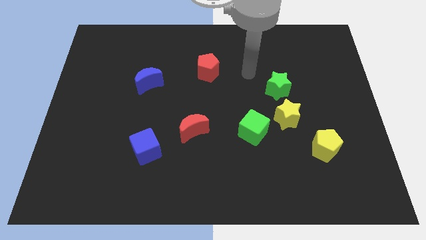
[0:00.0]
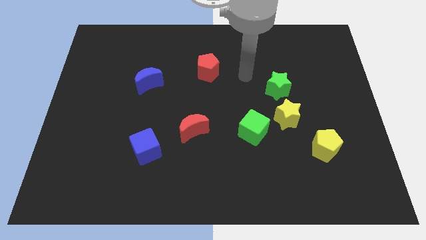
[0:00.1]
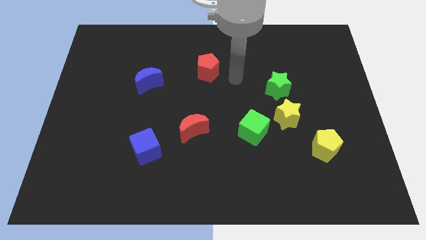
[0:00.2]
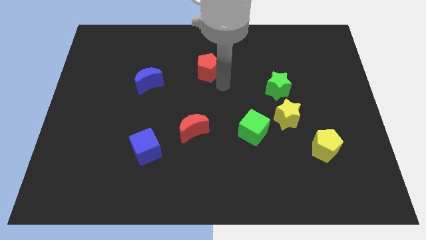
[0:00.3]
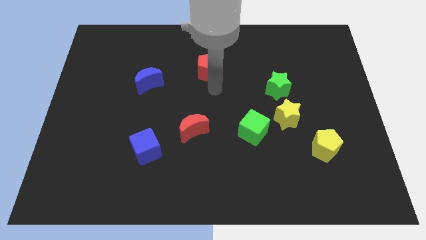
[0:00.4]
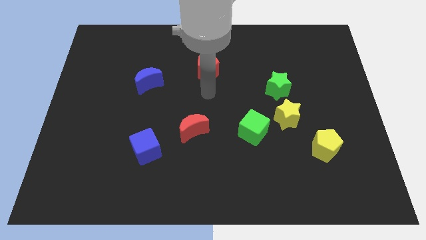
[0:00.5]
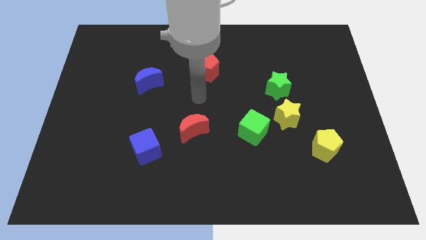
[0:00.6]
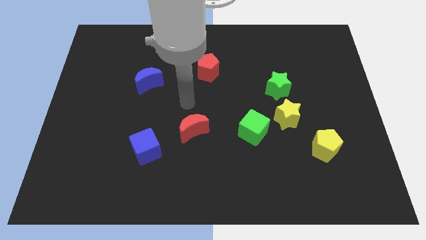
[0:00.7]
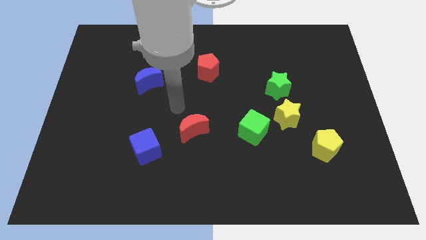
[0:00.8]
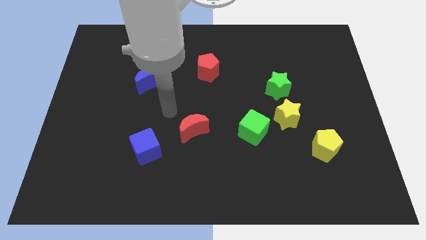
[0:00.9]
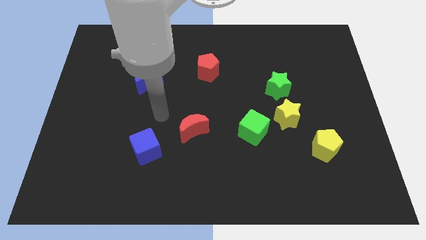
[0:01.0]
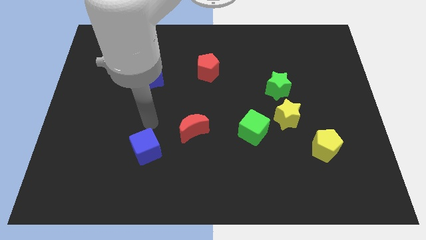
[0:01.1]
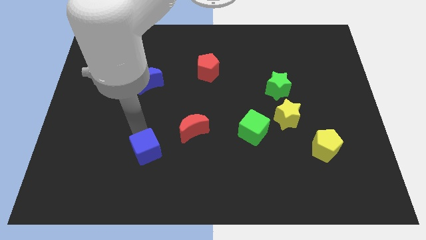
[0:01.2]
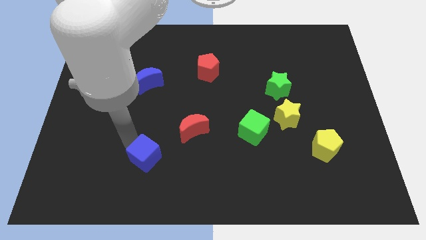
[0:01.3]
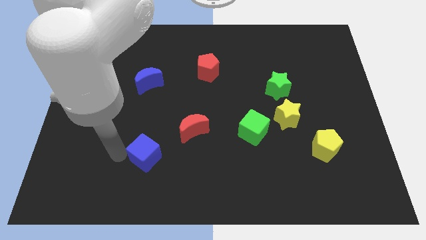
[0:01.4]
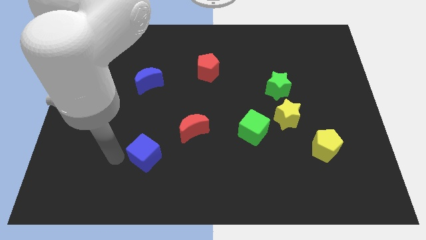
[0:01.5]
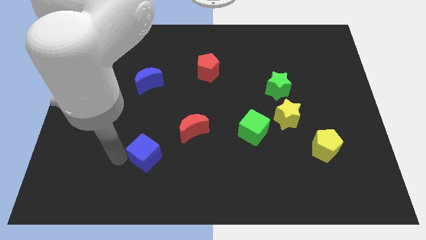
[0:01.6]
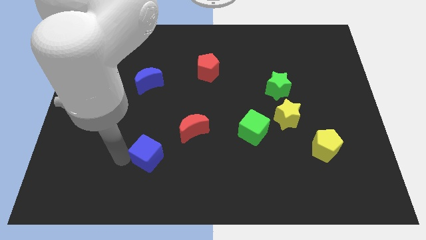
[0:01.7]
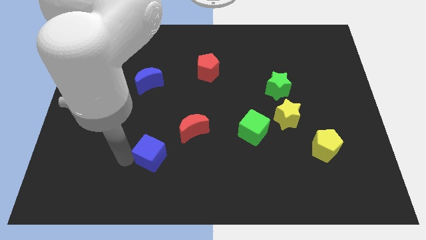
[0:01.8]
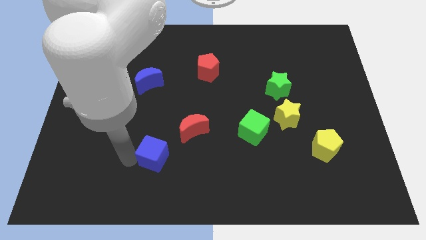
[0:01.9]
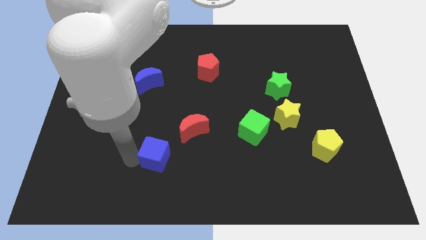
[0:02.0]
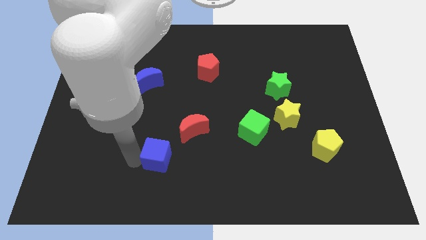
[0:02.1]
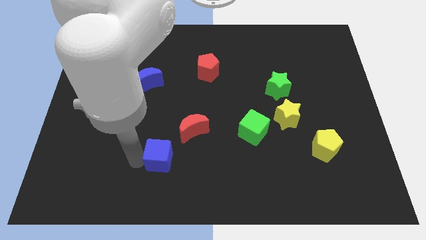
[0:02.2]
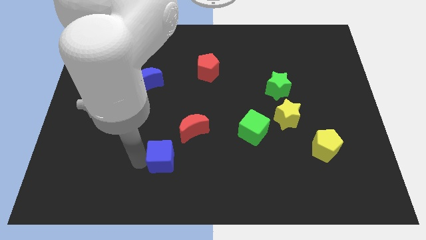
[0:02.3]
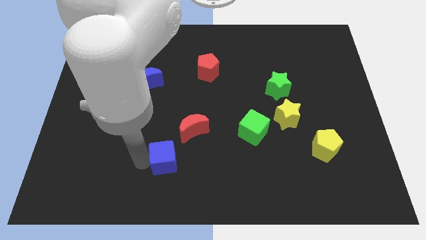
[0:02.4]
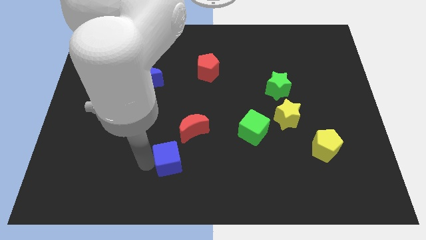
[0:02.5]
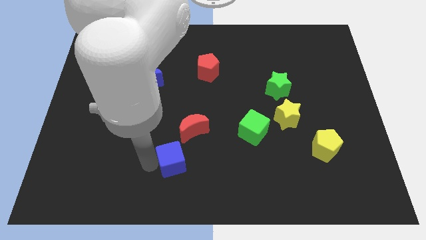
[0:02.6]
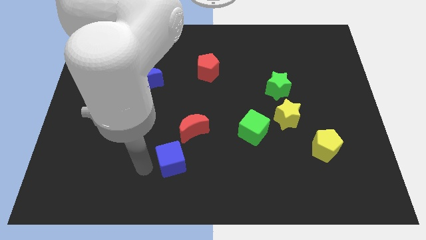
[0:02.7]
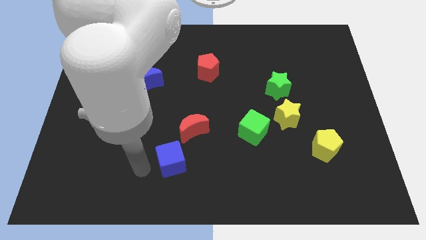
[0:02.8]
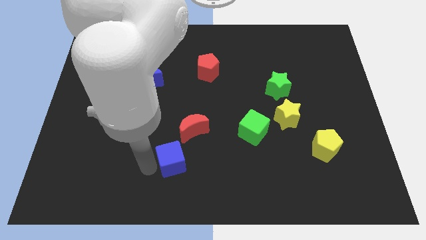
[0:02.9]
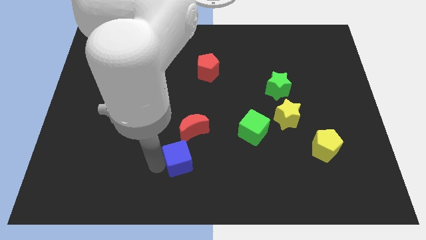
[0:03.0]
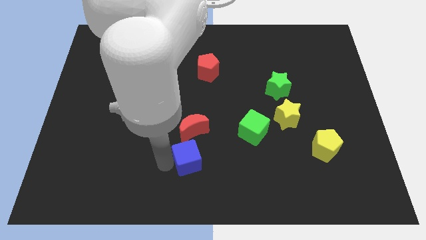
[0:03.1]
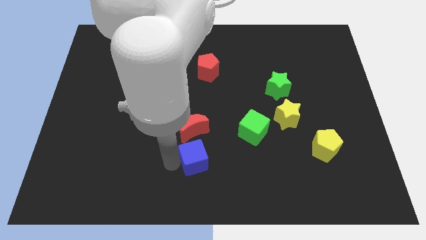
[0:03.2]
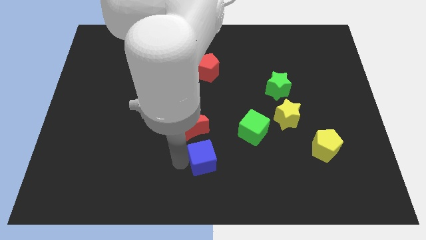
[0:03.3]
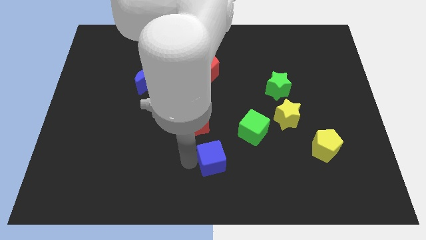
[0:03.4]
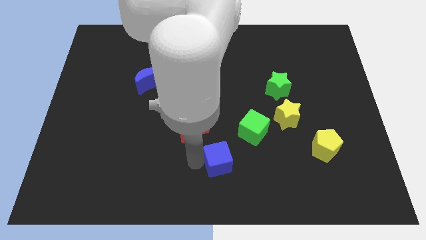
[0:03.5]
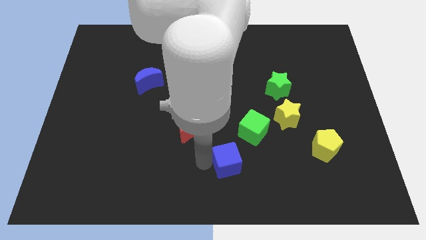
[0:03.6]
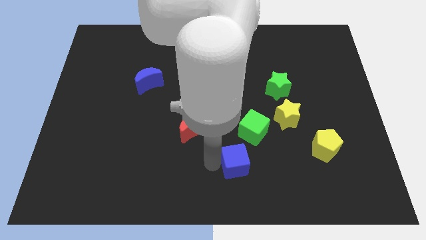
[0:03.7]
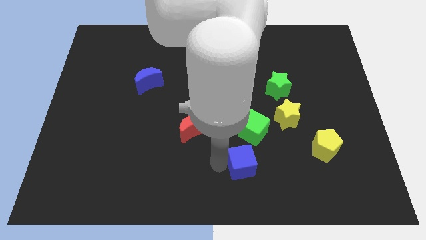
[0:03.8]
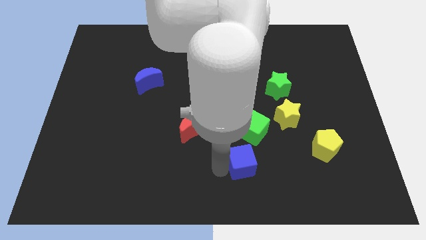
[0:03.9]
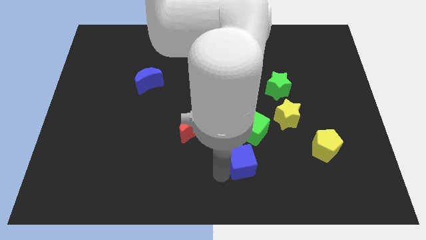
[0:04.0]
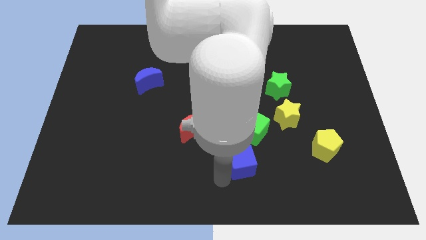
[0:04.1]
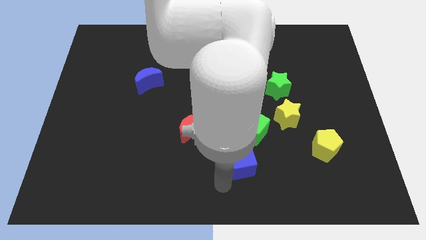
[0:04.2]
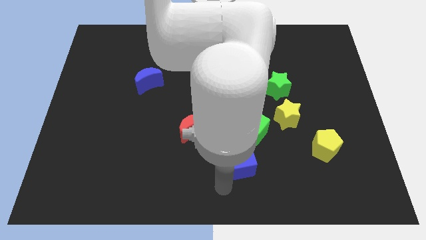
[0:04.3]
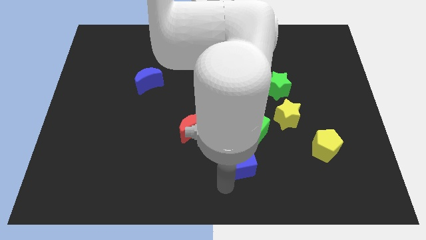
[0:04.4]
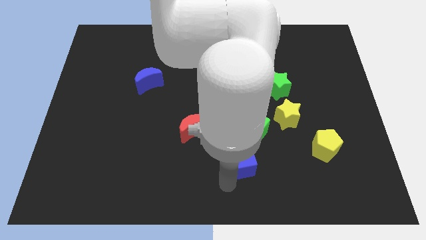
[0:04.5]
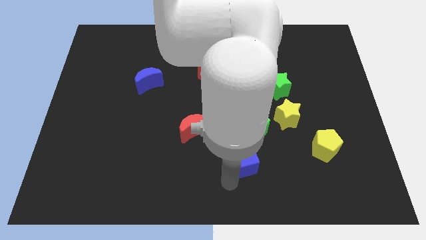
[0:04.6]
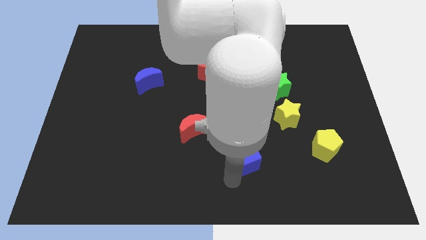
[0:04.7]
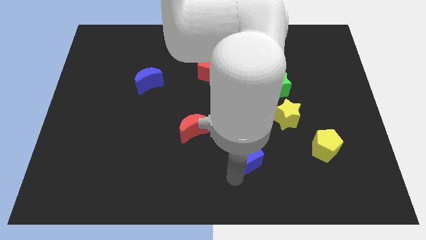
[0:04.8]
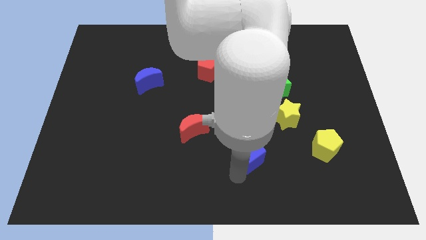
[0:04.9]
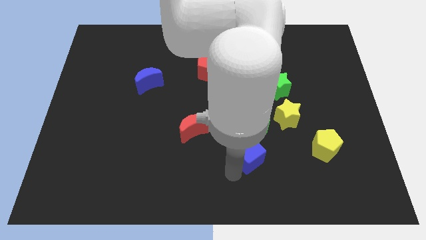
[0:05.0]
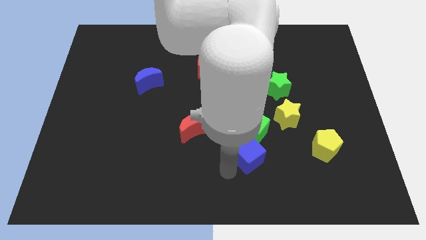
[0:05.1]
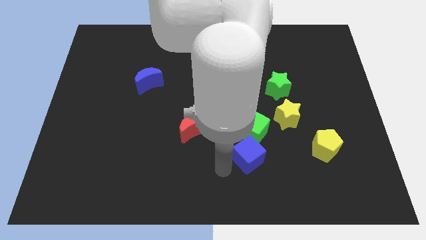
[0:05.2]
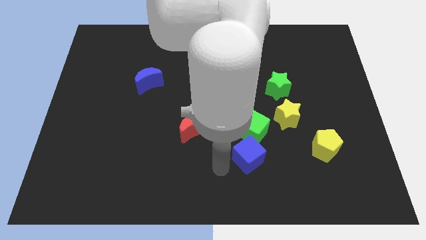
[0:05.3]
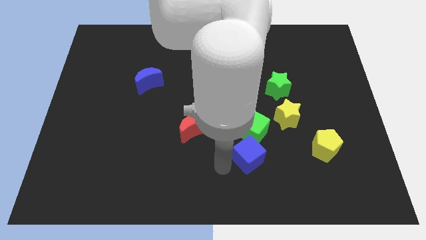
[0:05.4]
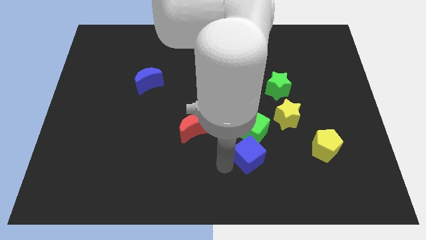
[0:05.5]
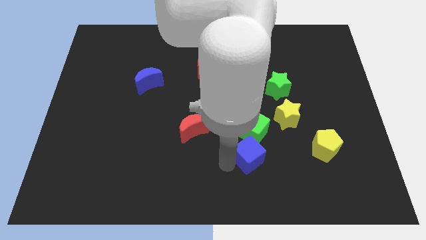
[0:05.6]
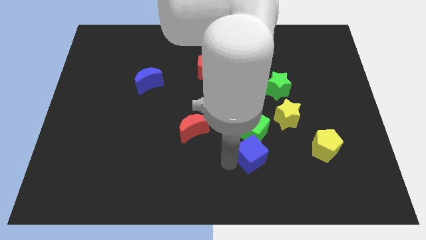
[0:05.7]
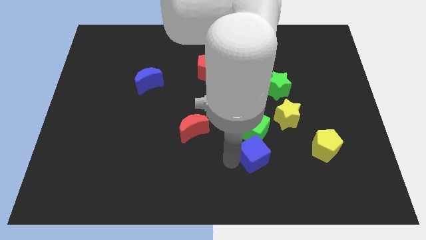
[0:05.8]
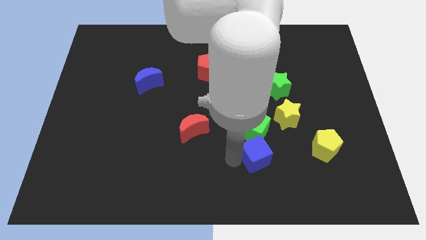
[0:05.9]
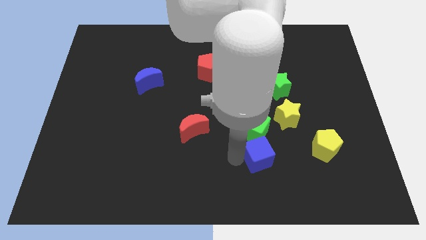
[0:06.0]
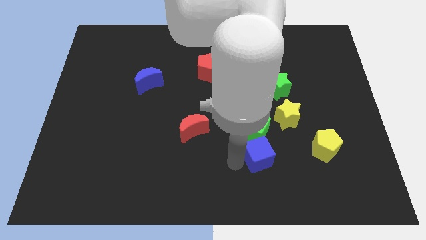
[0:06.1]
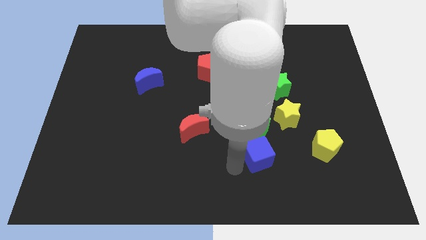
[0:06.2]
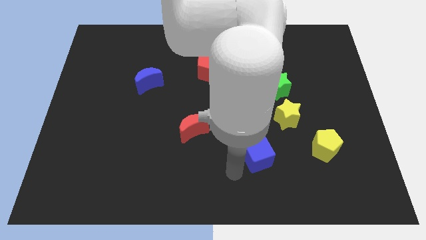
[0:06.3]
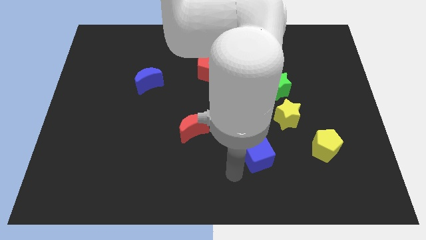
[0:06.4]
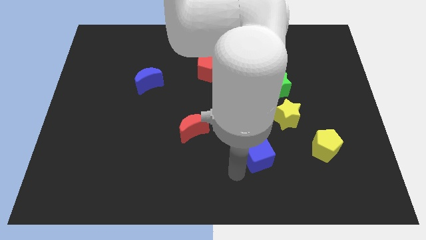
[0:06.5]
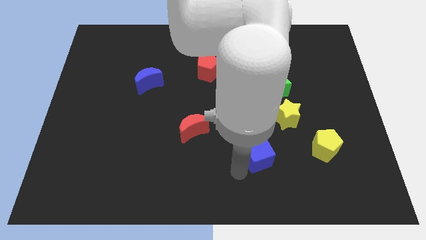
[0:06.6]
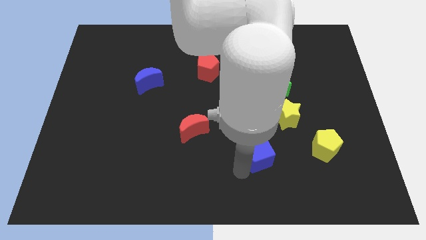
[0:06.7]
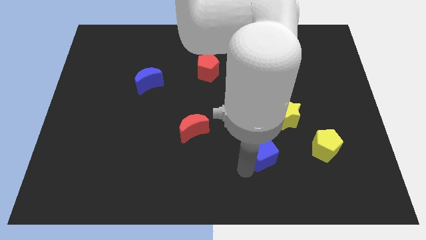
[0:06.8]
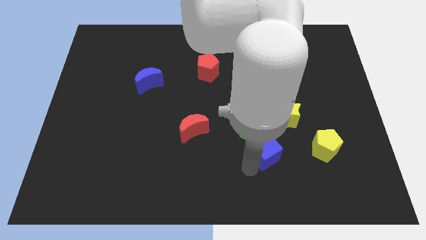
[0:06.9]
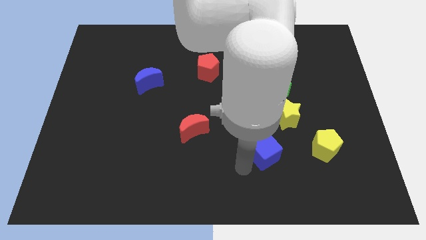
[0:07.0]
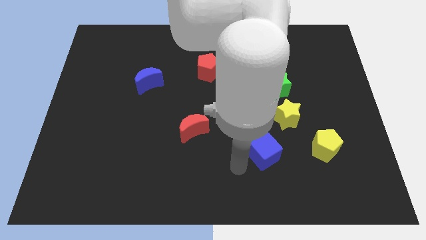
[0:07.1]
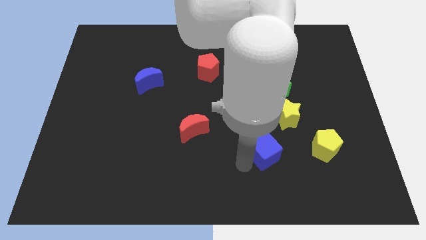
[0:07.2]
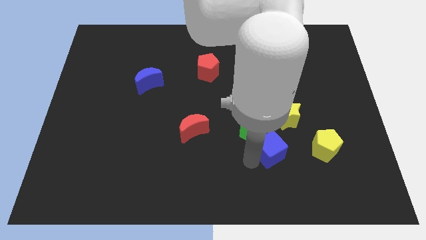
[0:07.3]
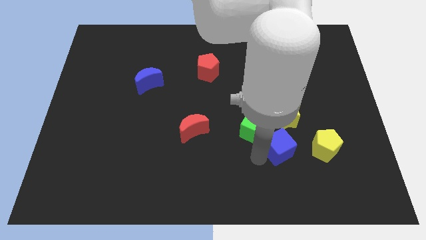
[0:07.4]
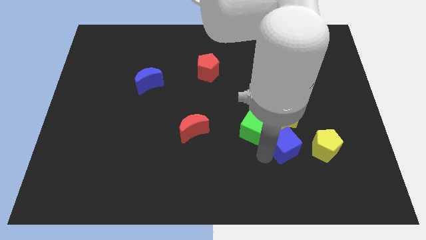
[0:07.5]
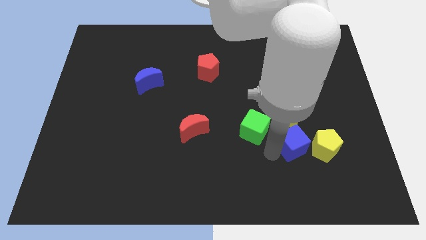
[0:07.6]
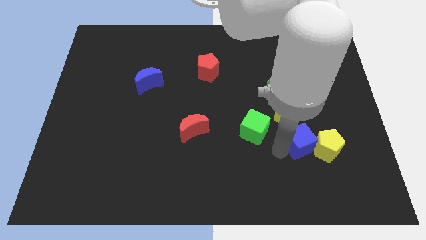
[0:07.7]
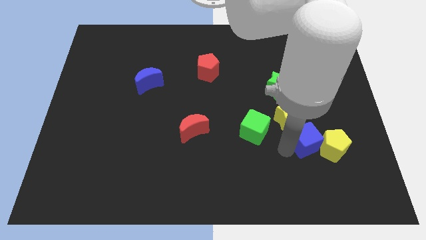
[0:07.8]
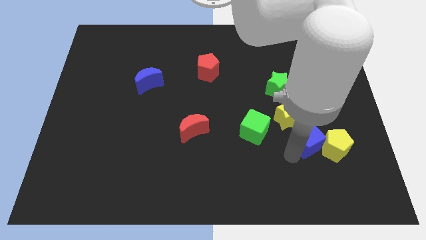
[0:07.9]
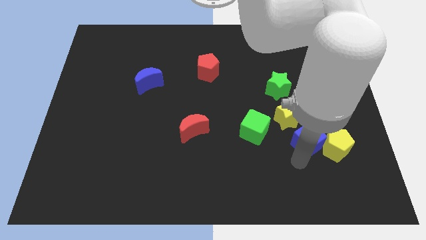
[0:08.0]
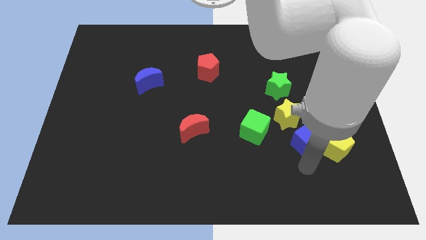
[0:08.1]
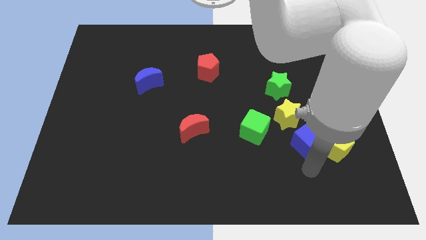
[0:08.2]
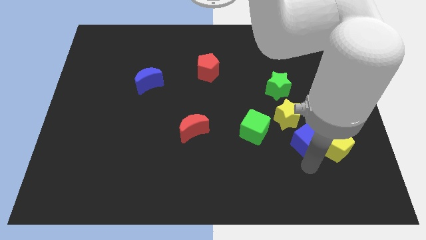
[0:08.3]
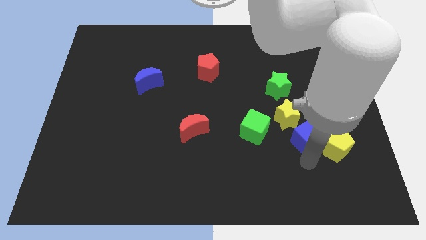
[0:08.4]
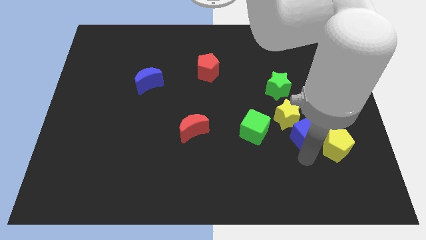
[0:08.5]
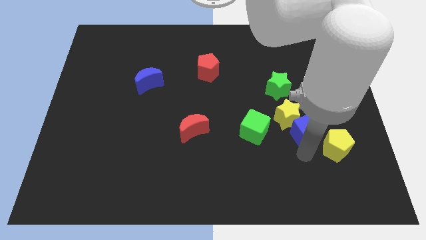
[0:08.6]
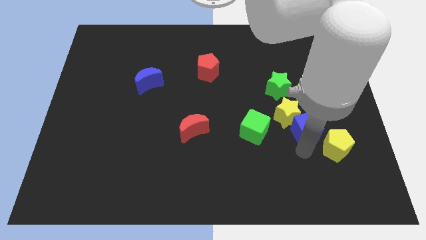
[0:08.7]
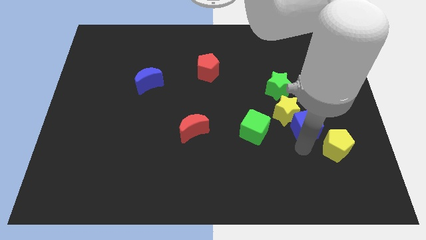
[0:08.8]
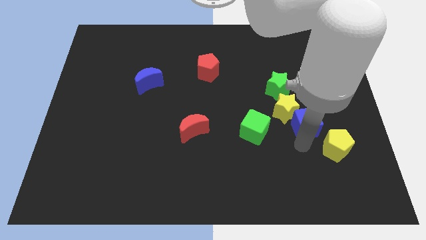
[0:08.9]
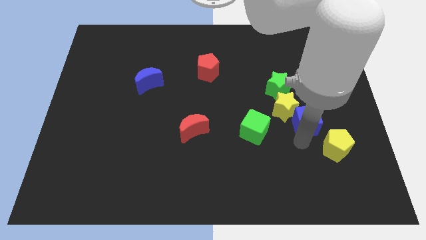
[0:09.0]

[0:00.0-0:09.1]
push the blue cube to the bottom right side of the green star
